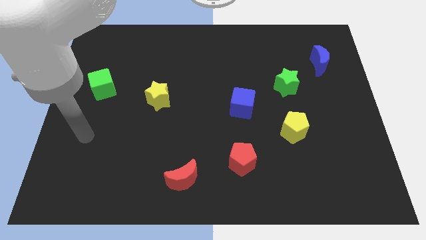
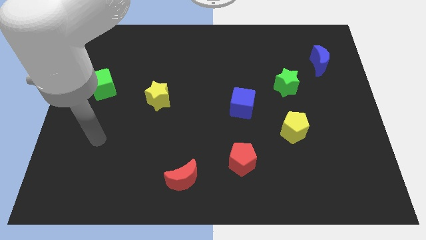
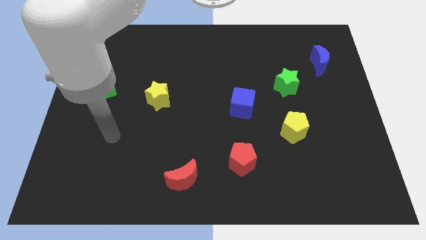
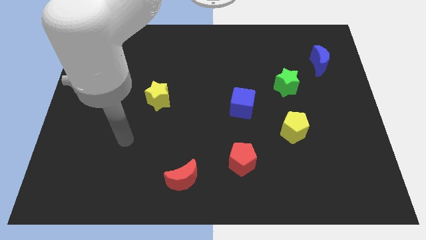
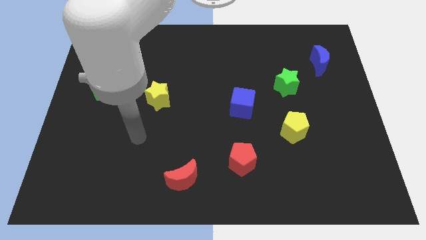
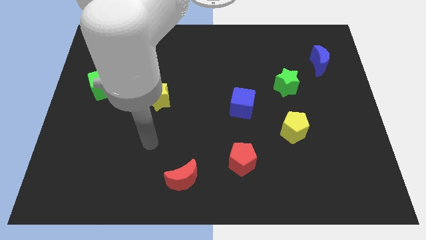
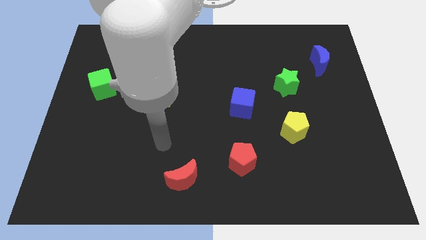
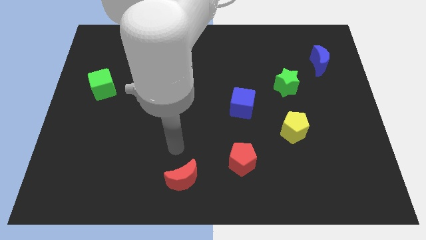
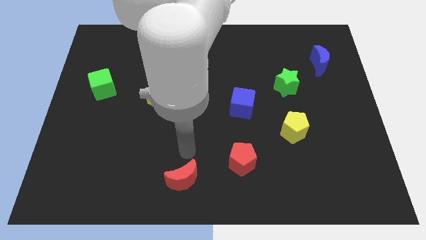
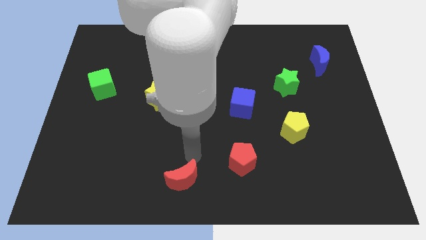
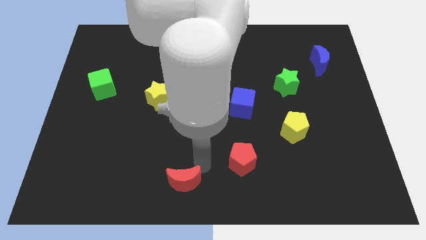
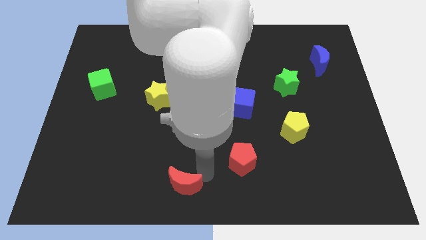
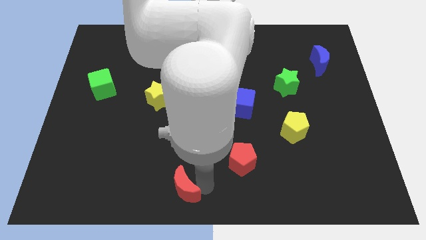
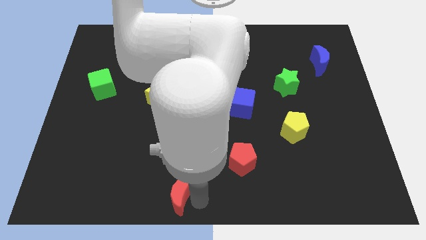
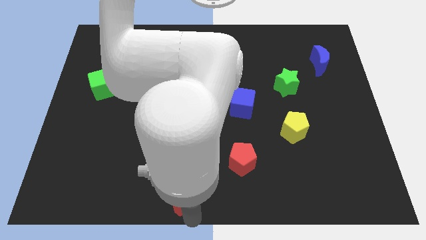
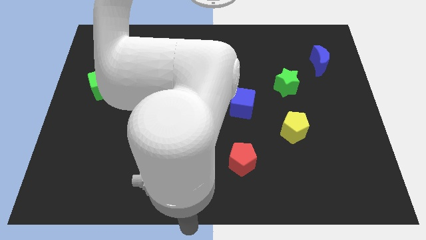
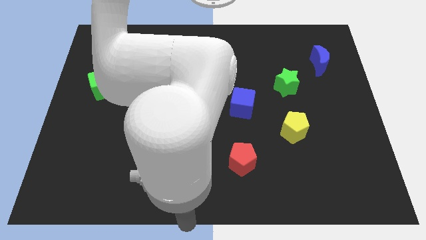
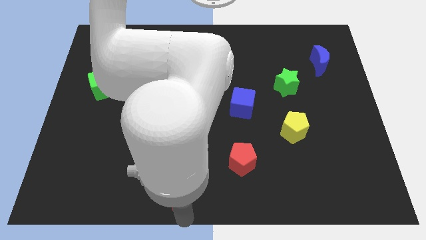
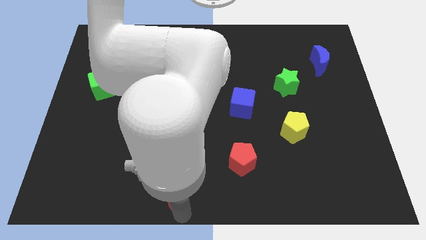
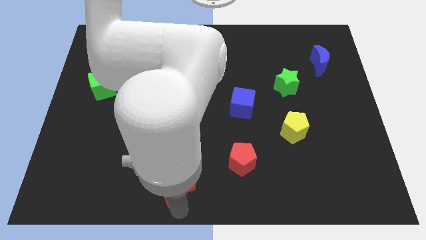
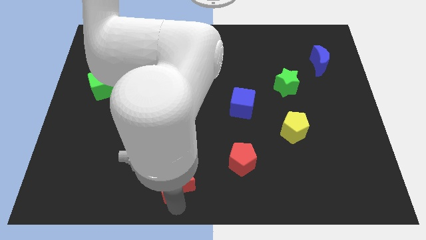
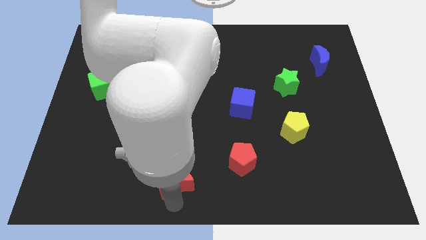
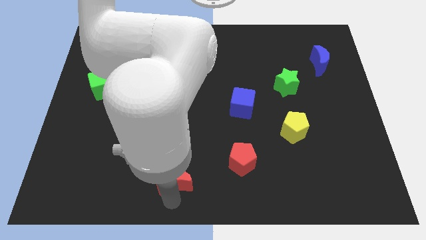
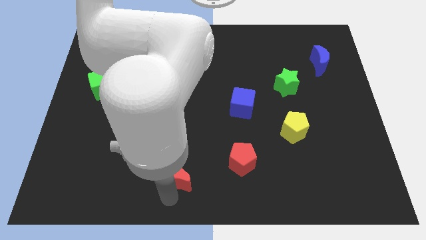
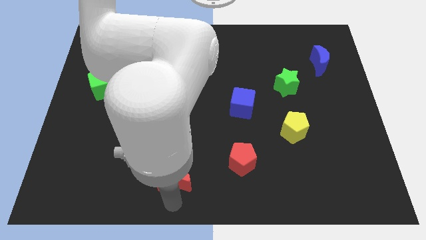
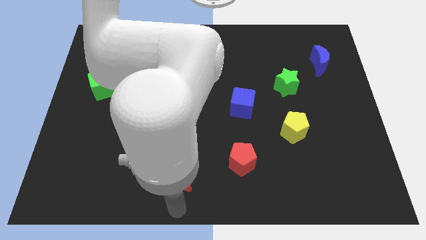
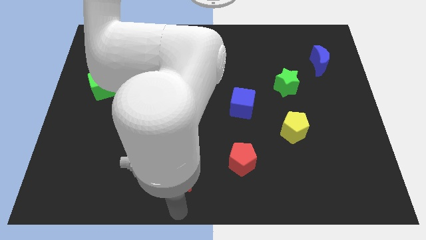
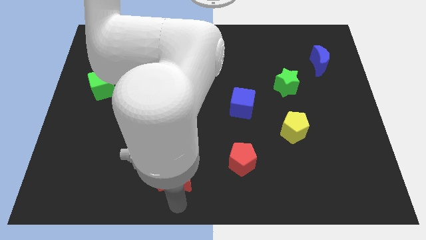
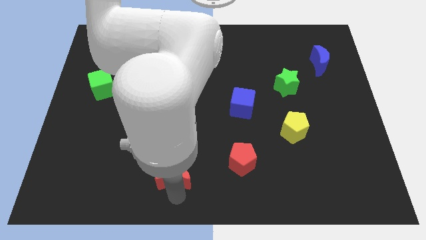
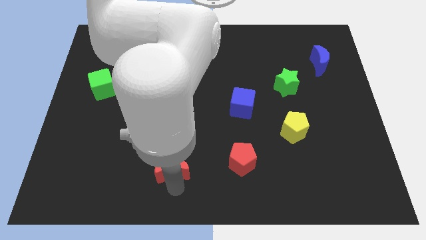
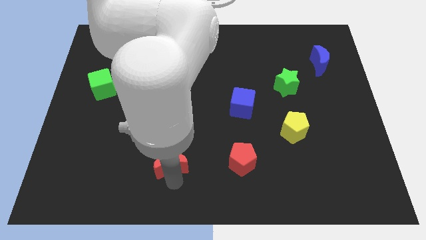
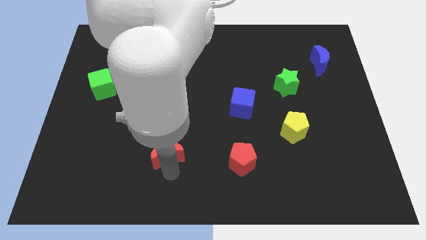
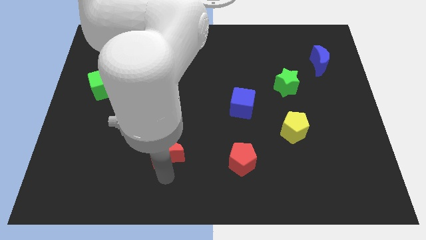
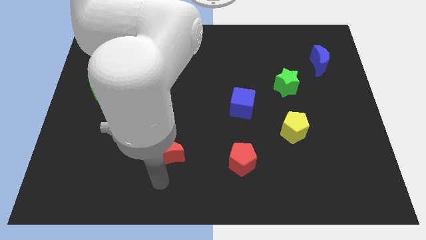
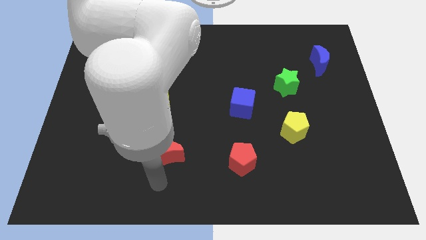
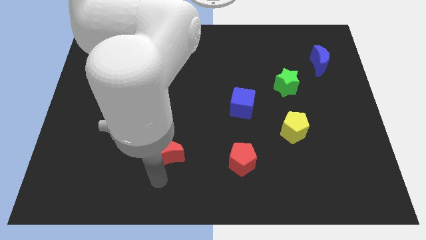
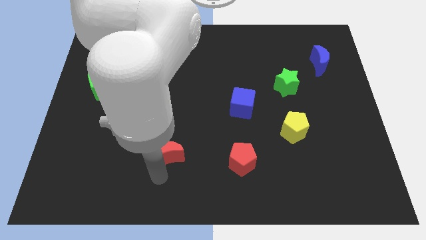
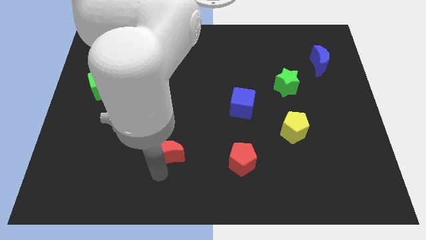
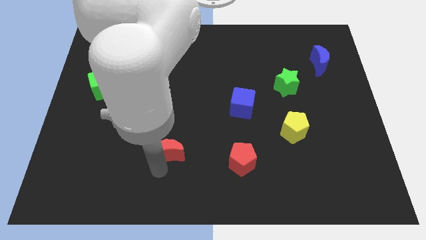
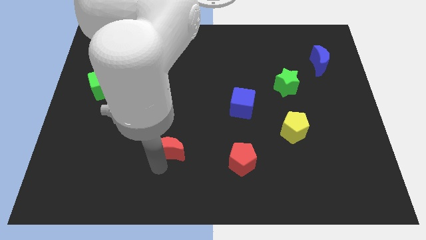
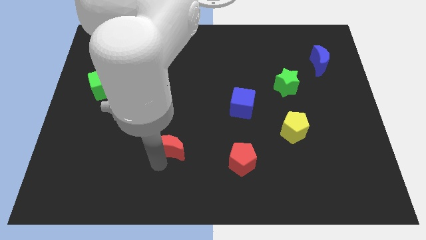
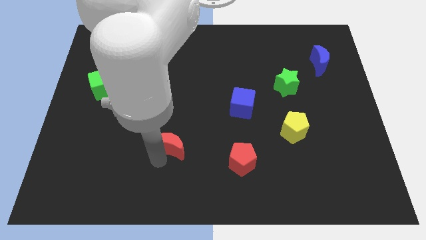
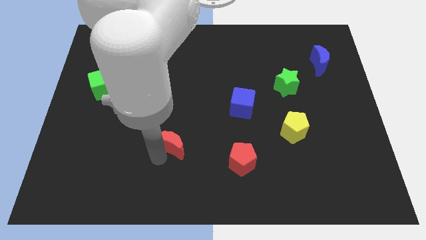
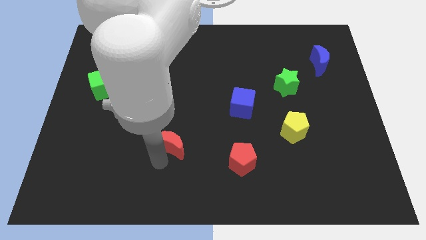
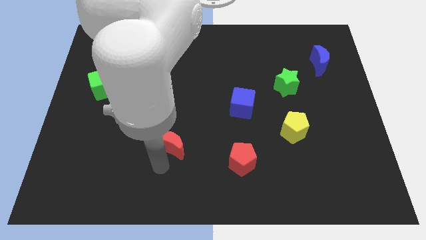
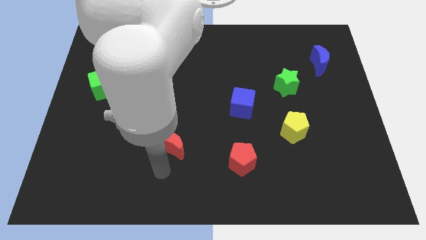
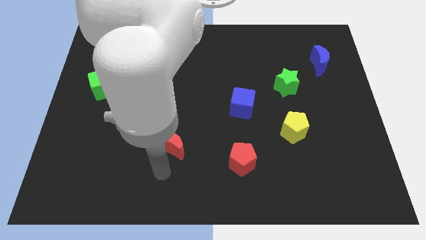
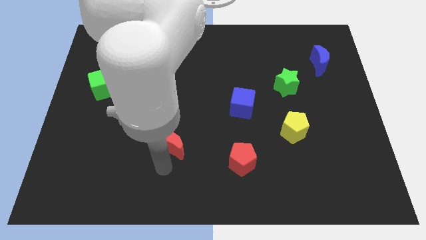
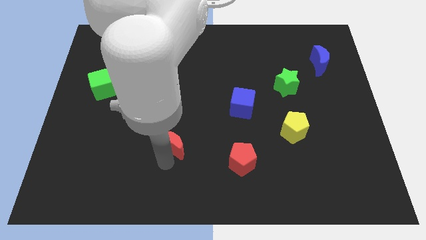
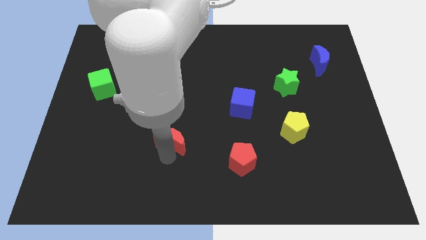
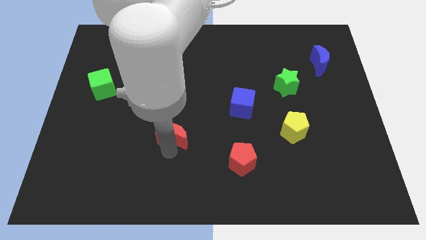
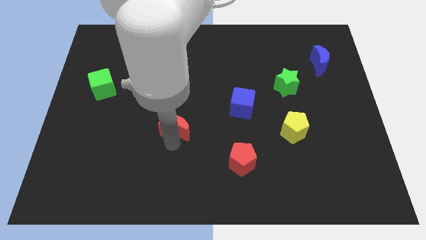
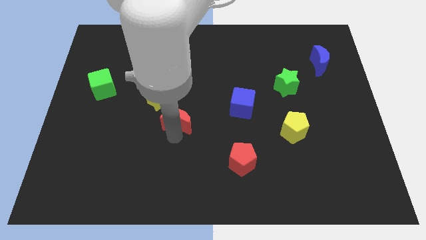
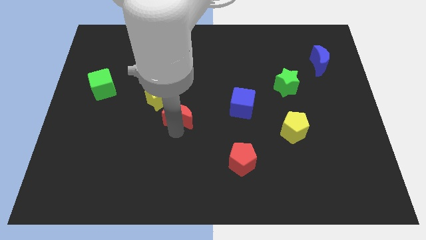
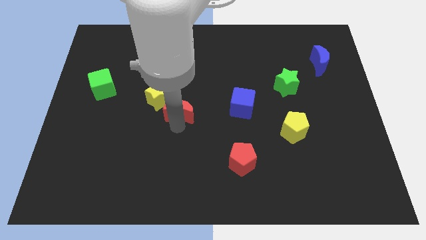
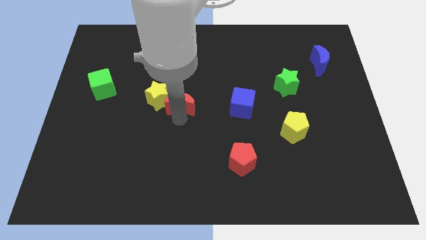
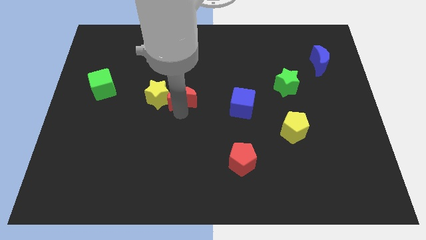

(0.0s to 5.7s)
slide the red moon upwards

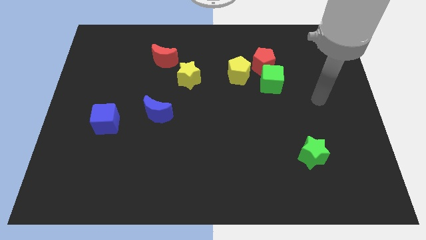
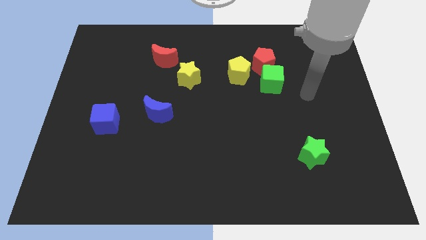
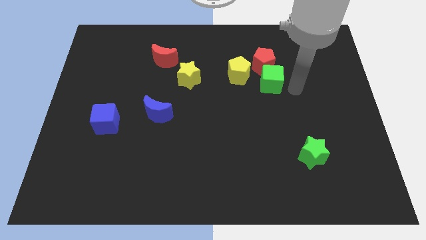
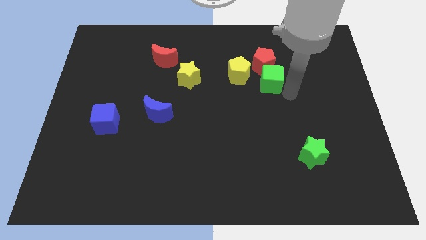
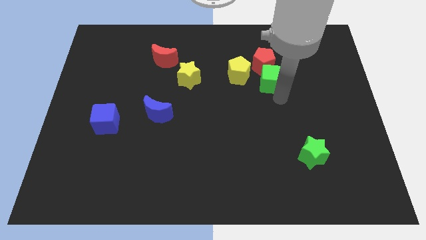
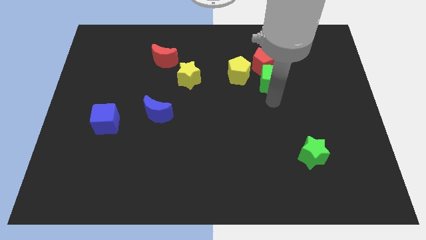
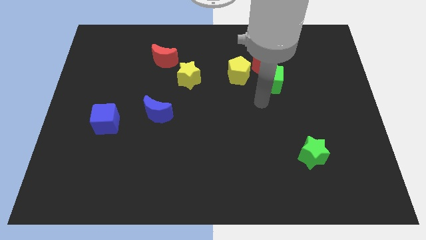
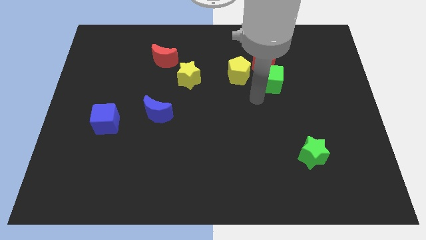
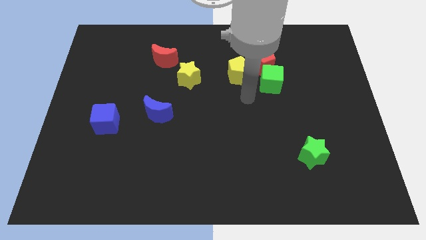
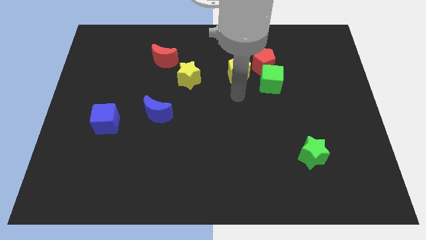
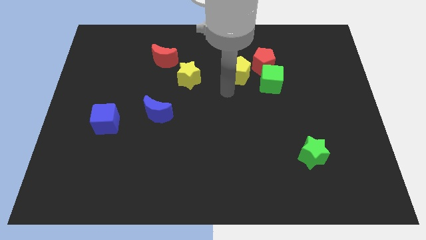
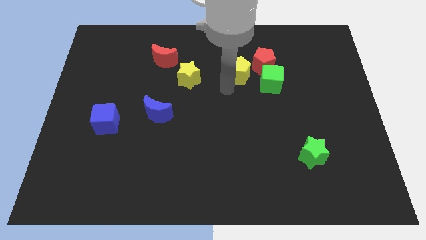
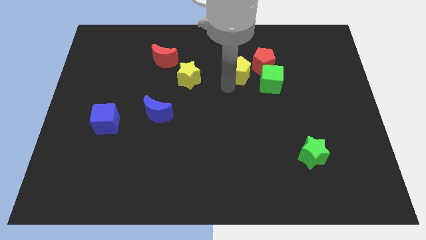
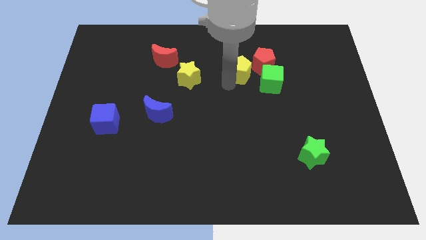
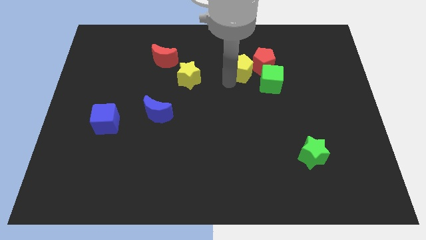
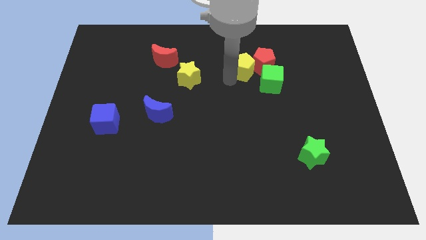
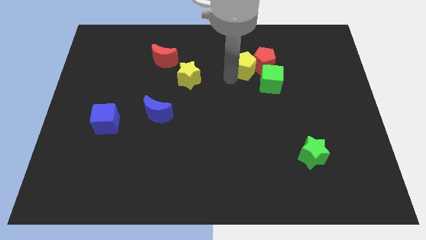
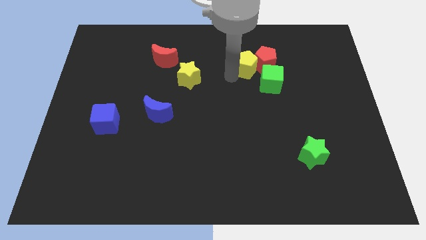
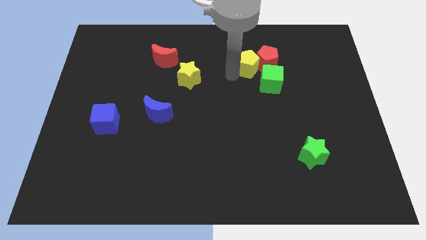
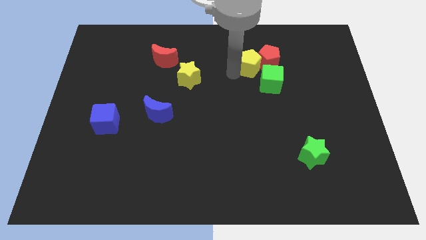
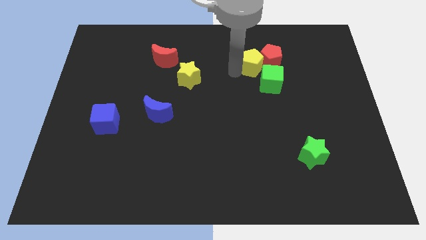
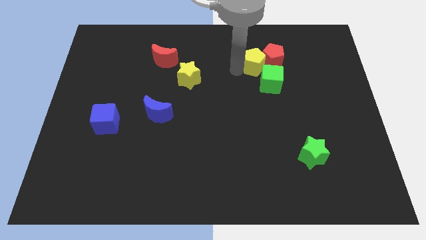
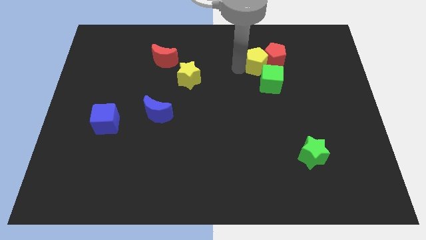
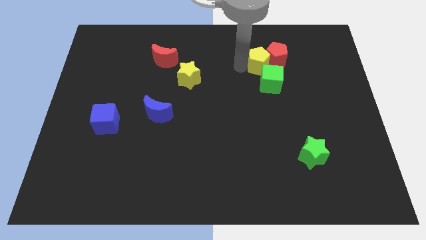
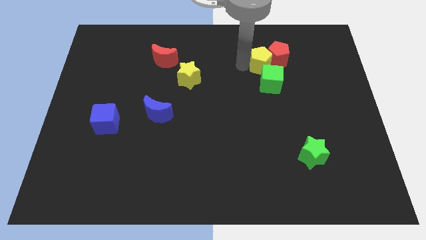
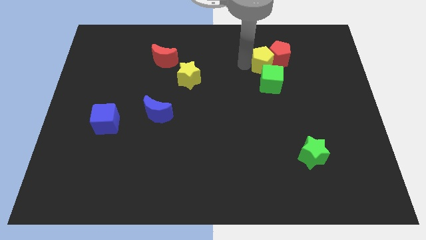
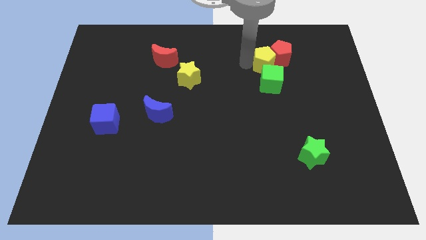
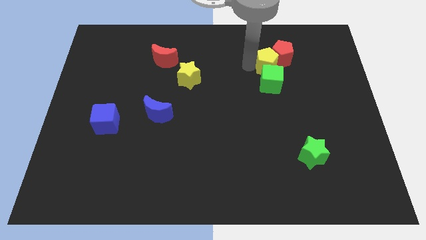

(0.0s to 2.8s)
slightly slide the yellow pentagon to the right
